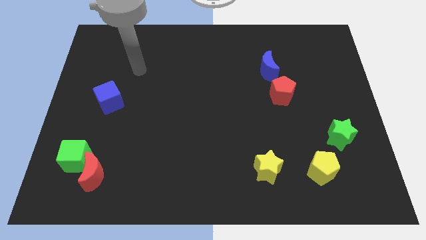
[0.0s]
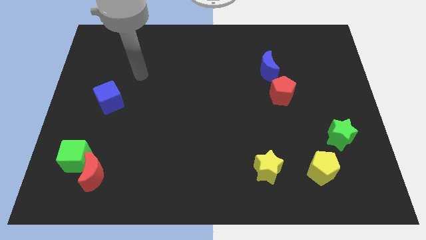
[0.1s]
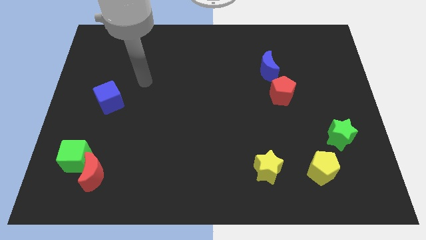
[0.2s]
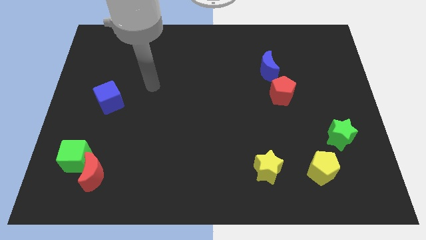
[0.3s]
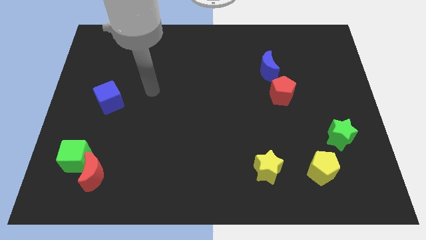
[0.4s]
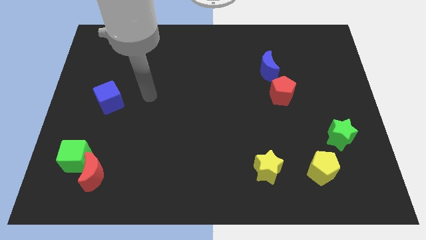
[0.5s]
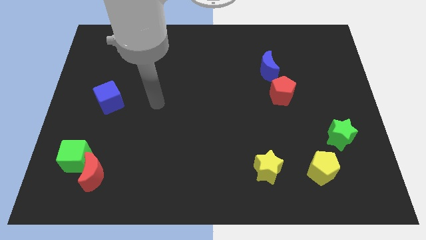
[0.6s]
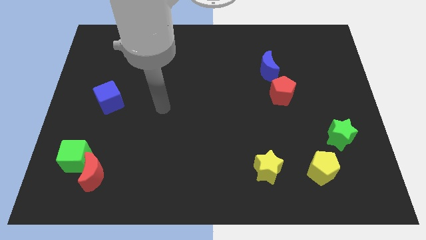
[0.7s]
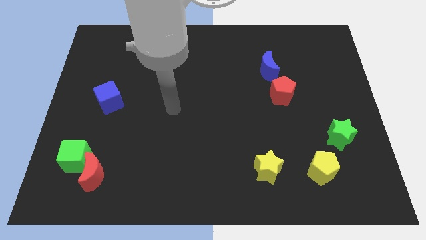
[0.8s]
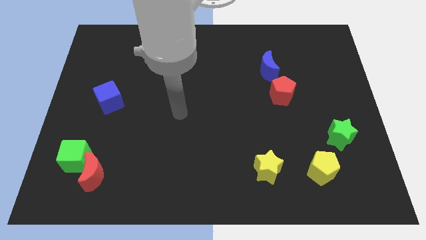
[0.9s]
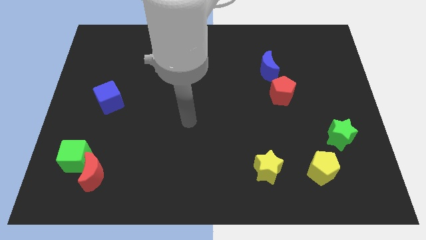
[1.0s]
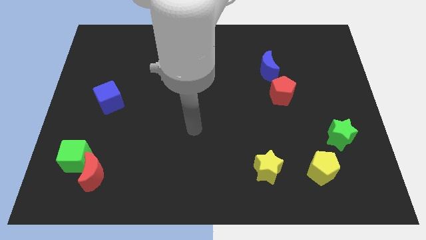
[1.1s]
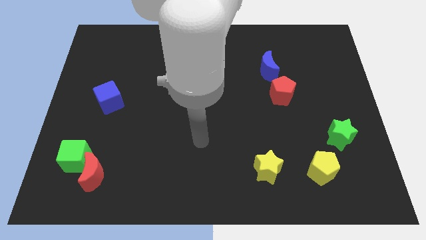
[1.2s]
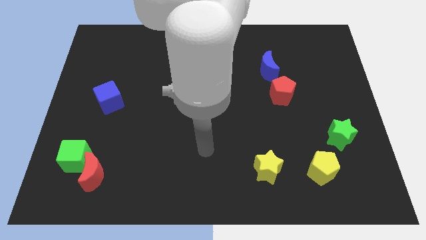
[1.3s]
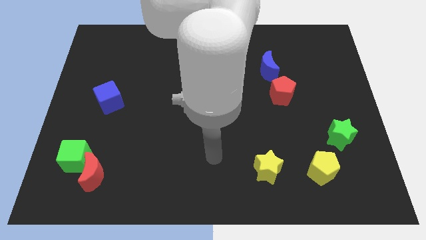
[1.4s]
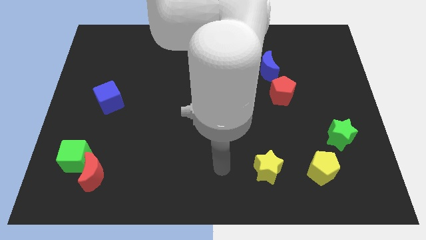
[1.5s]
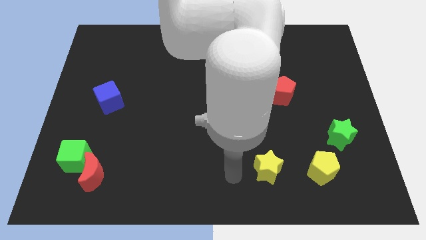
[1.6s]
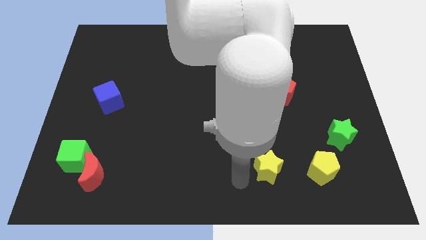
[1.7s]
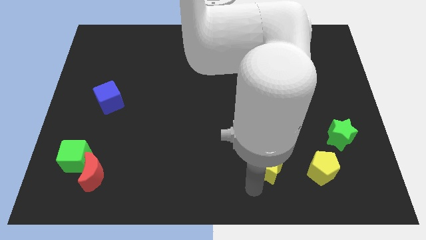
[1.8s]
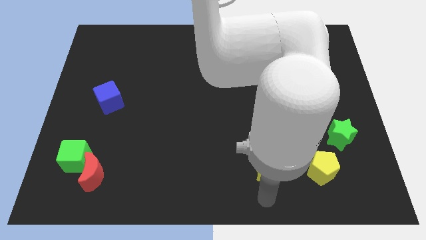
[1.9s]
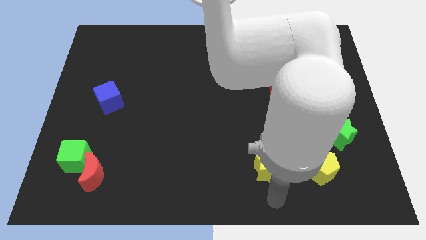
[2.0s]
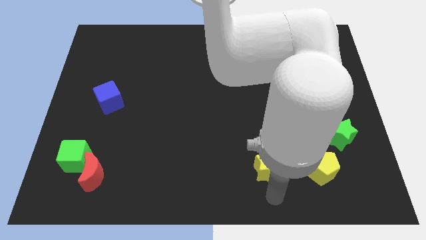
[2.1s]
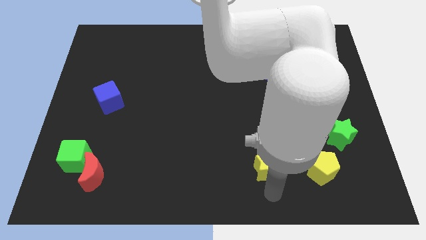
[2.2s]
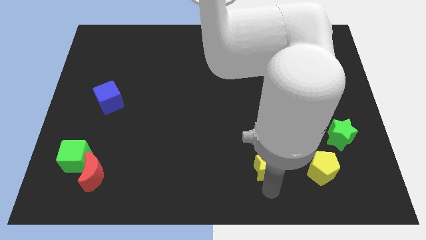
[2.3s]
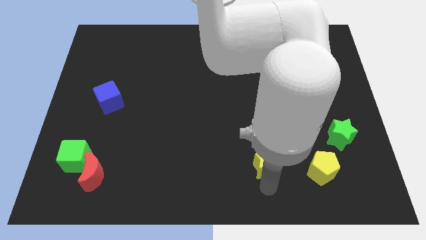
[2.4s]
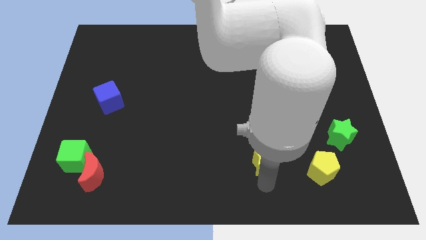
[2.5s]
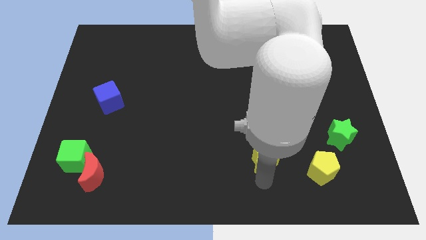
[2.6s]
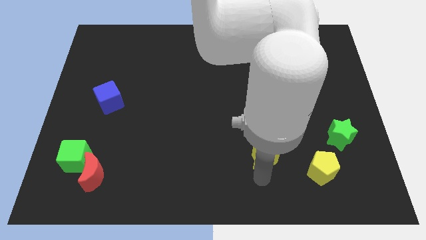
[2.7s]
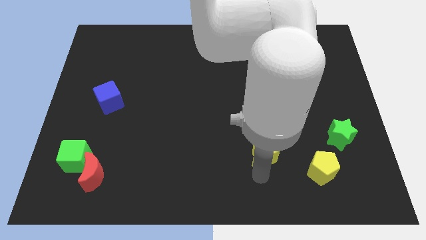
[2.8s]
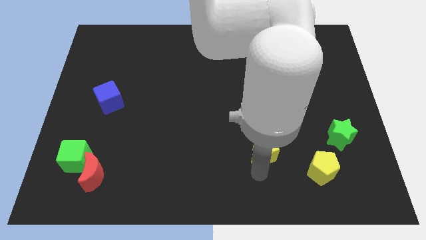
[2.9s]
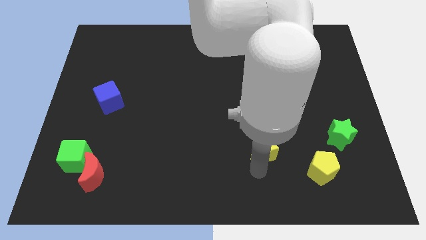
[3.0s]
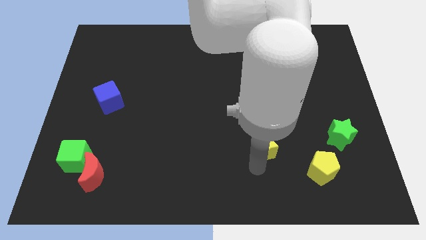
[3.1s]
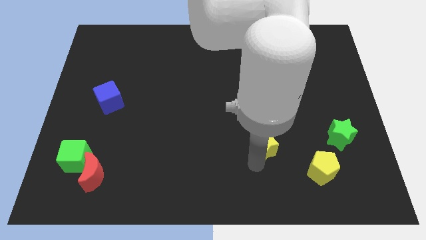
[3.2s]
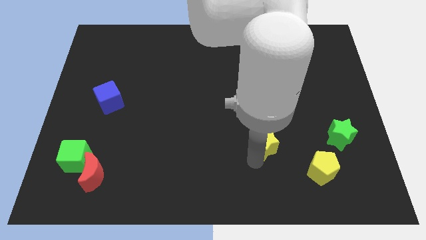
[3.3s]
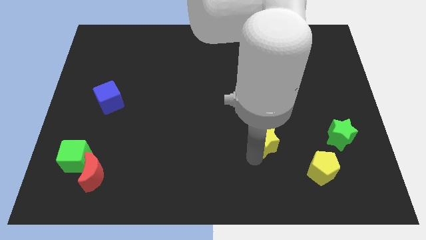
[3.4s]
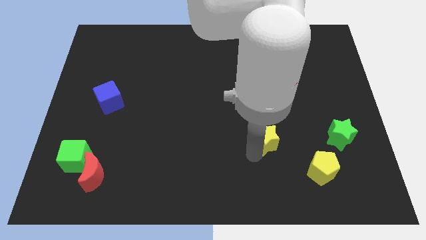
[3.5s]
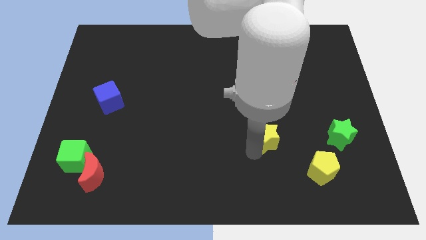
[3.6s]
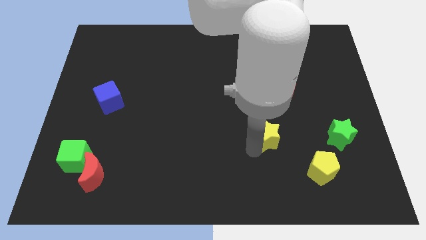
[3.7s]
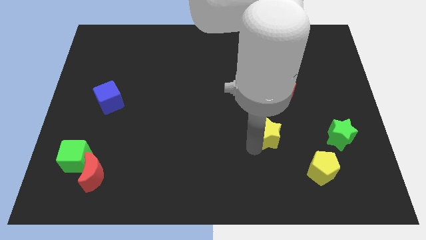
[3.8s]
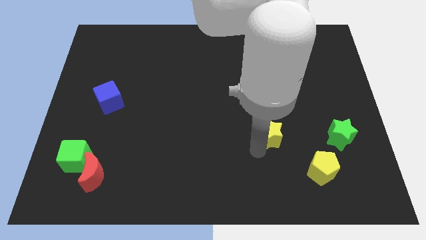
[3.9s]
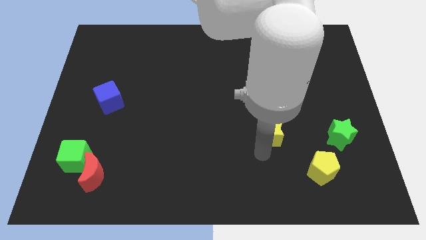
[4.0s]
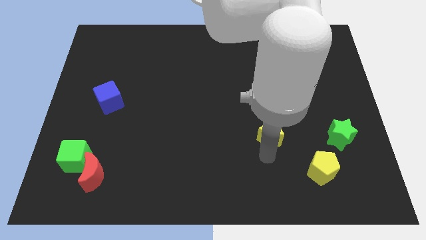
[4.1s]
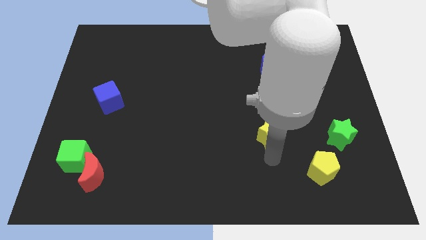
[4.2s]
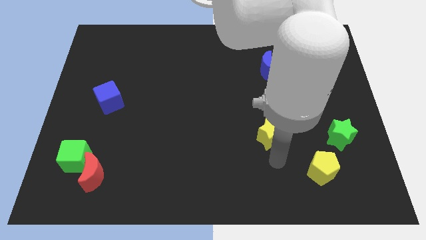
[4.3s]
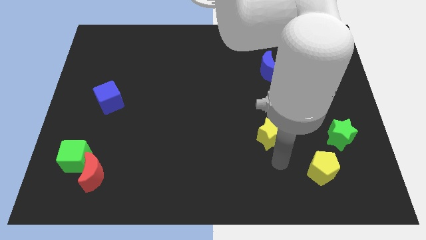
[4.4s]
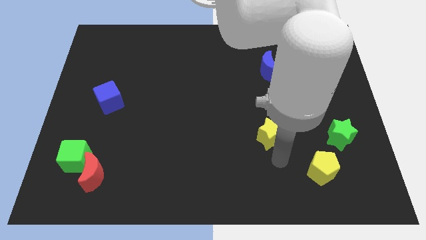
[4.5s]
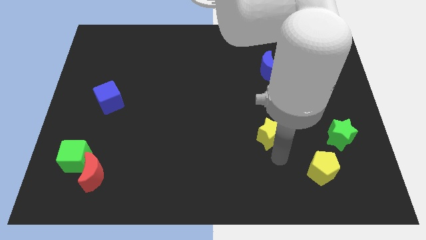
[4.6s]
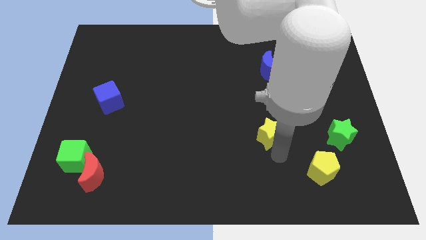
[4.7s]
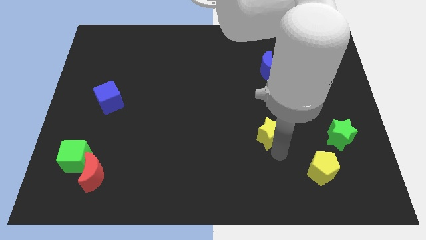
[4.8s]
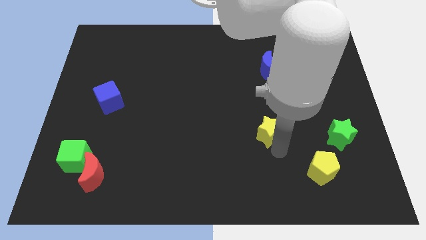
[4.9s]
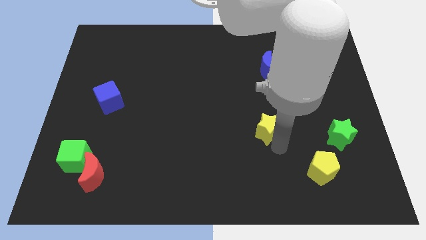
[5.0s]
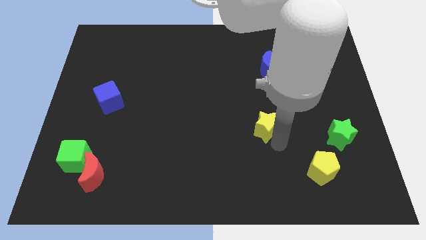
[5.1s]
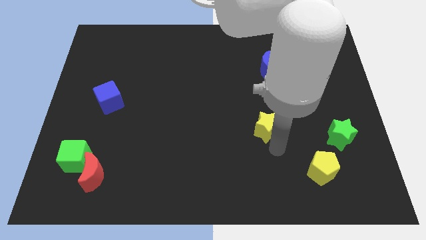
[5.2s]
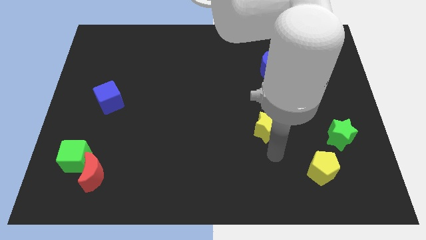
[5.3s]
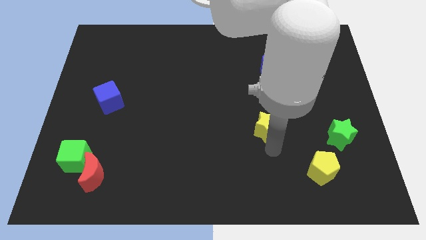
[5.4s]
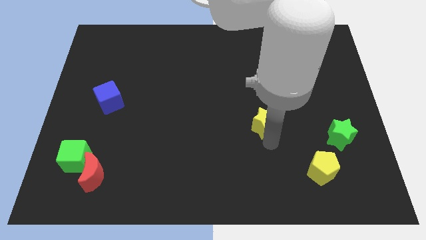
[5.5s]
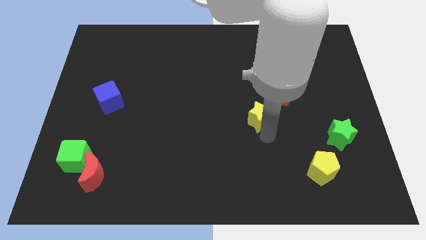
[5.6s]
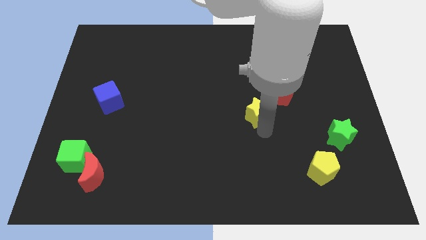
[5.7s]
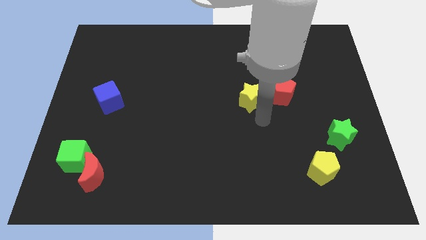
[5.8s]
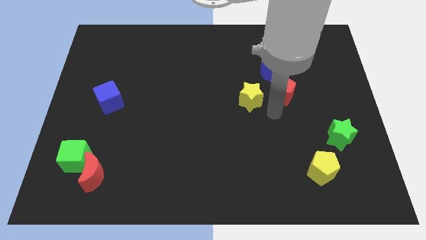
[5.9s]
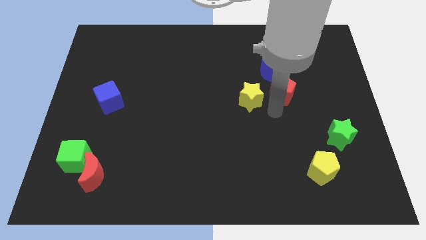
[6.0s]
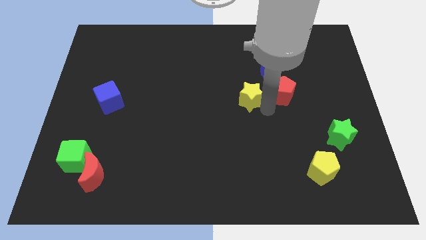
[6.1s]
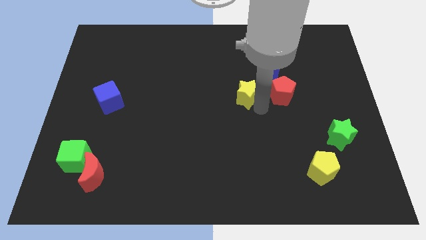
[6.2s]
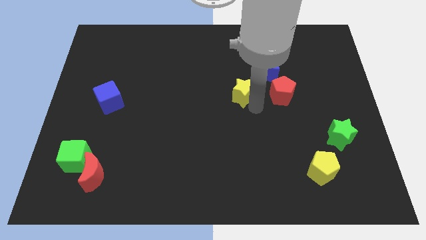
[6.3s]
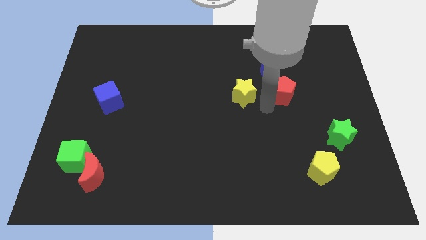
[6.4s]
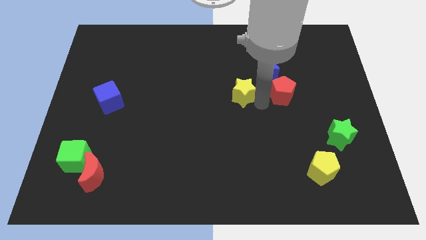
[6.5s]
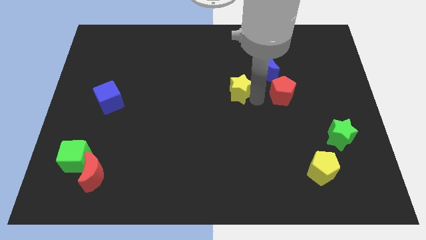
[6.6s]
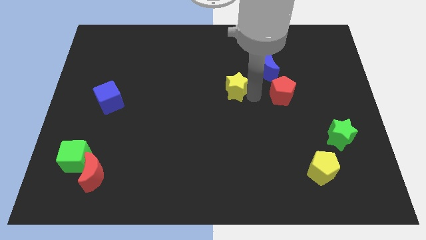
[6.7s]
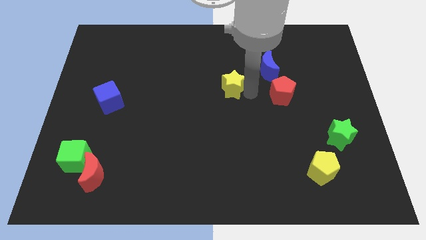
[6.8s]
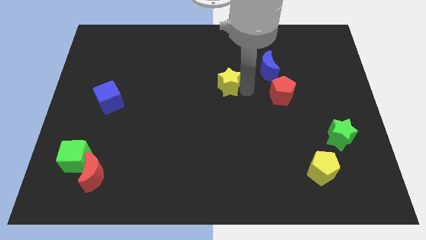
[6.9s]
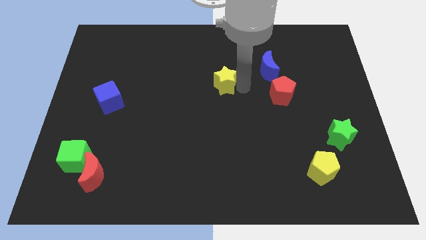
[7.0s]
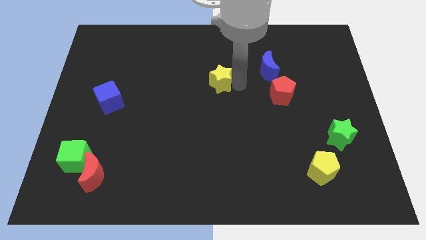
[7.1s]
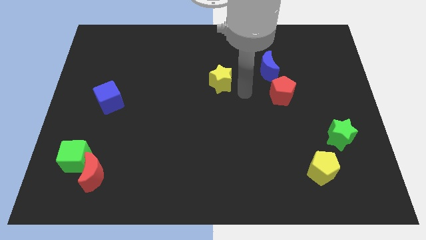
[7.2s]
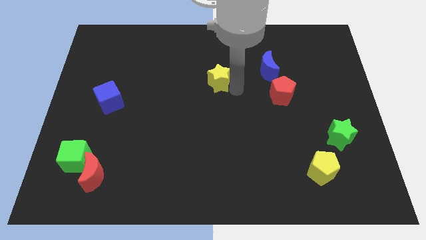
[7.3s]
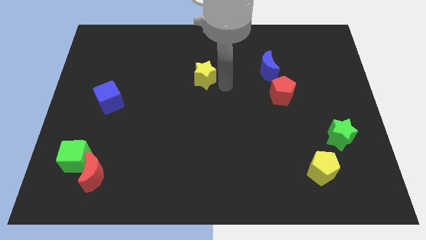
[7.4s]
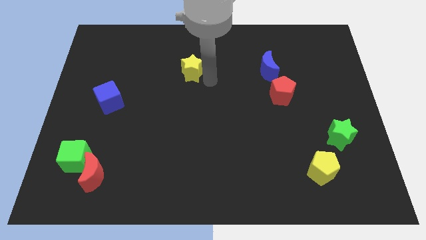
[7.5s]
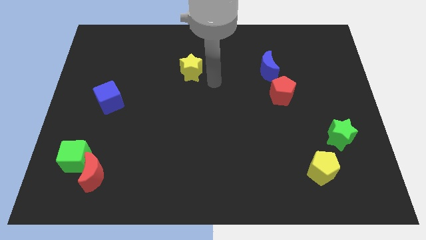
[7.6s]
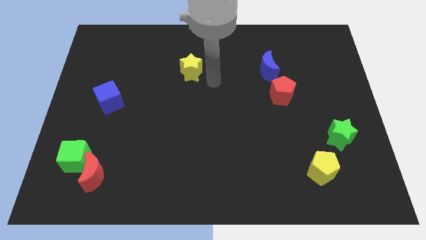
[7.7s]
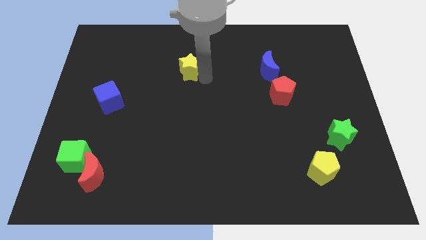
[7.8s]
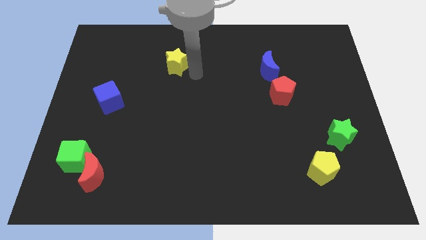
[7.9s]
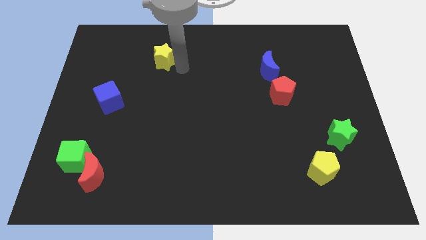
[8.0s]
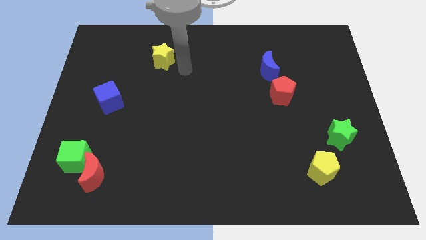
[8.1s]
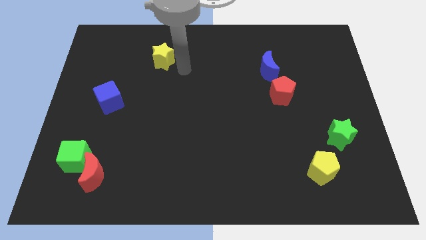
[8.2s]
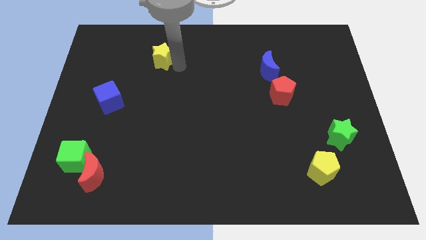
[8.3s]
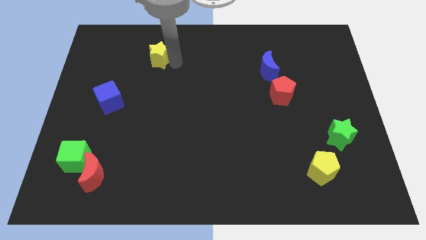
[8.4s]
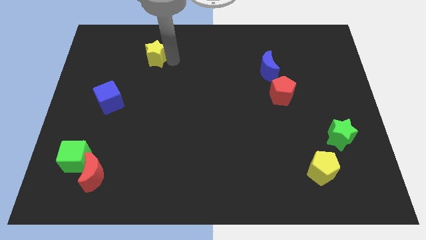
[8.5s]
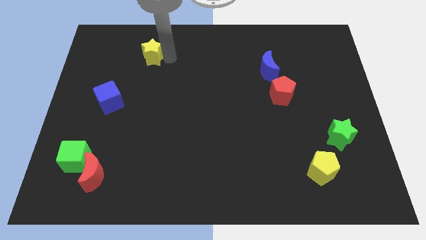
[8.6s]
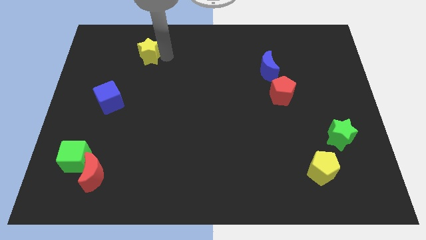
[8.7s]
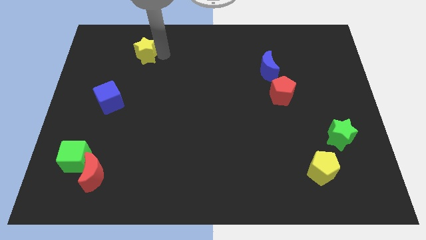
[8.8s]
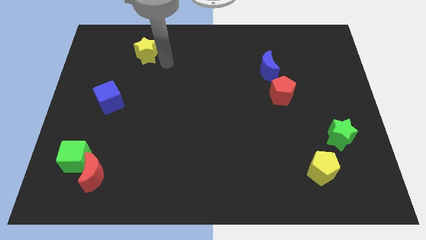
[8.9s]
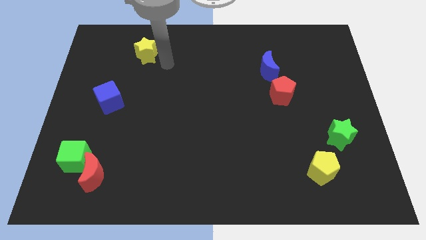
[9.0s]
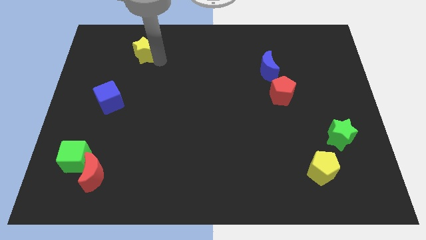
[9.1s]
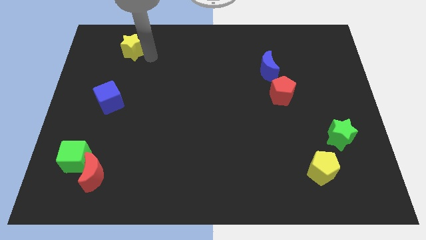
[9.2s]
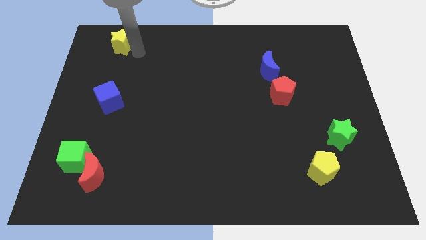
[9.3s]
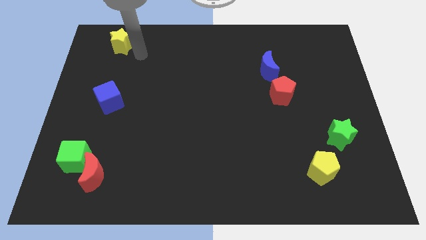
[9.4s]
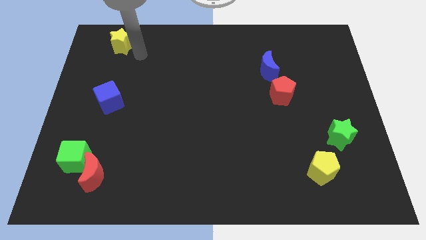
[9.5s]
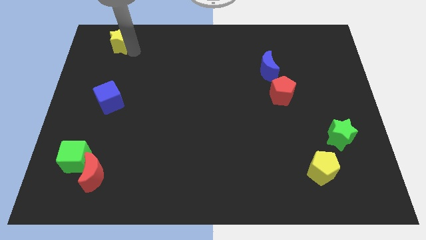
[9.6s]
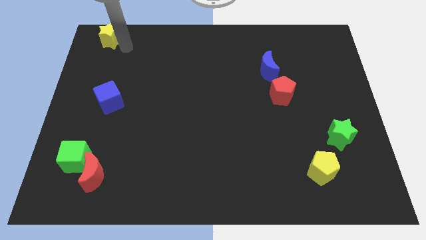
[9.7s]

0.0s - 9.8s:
move the yellow star to the top left corner
